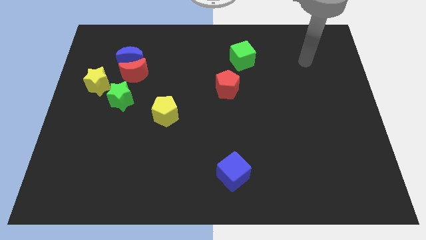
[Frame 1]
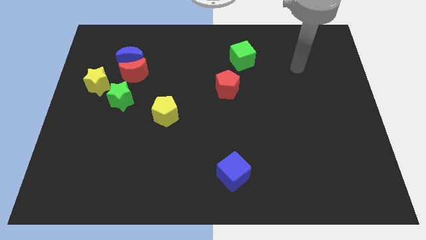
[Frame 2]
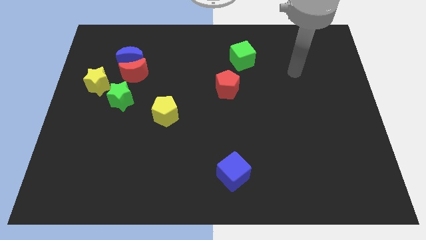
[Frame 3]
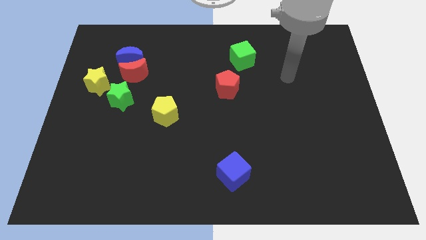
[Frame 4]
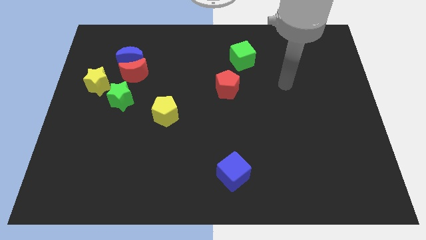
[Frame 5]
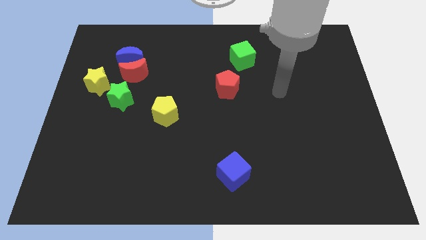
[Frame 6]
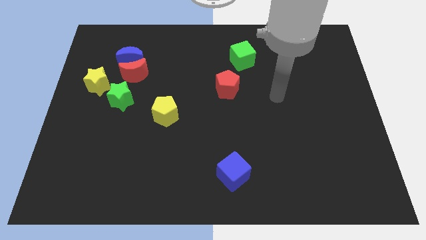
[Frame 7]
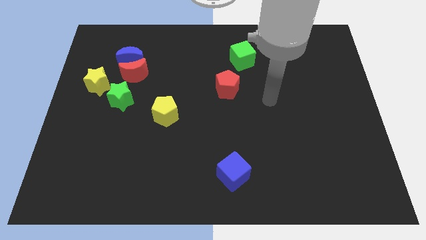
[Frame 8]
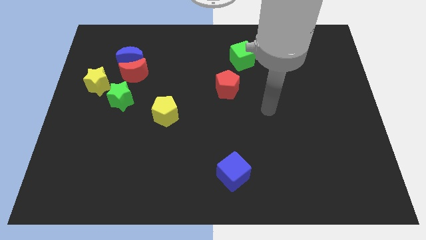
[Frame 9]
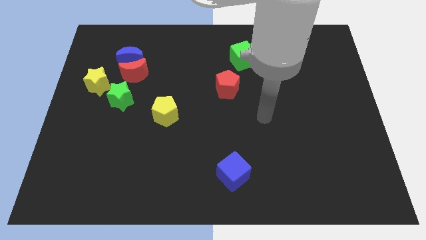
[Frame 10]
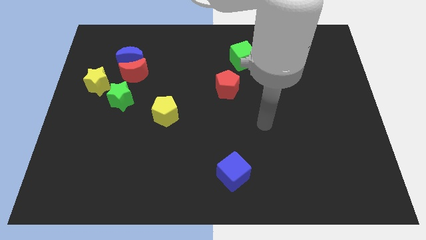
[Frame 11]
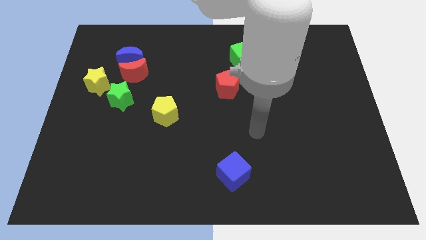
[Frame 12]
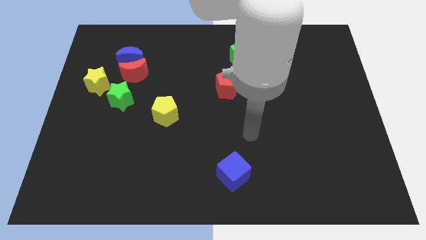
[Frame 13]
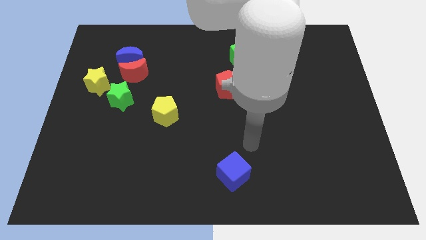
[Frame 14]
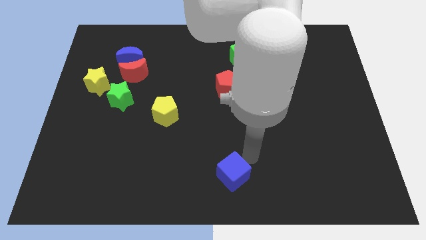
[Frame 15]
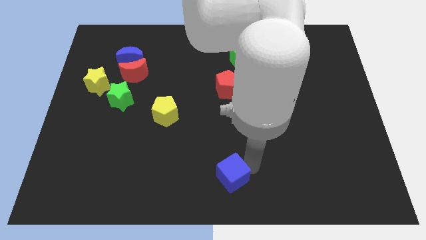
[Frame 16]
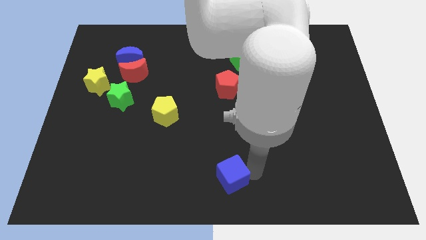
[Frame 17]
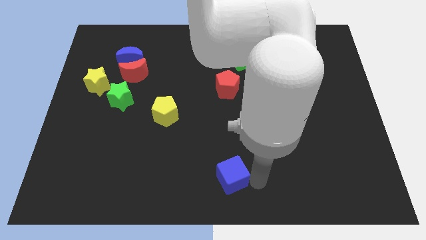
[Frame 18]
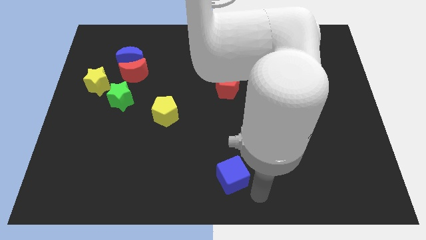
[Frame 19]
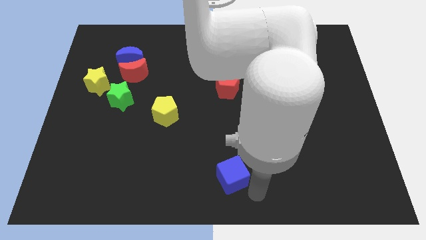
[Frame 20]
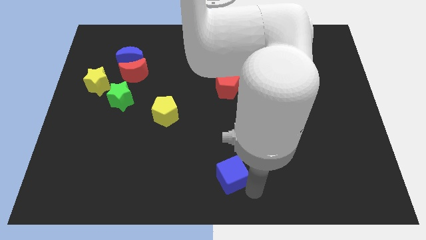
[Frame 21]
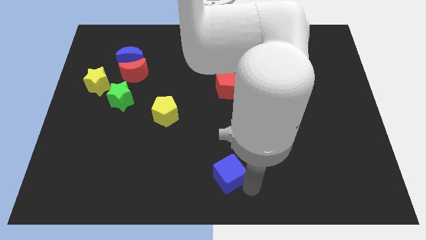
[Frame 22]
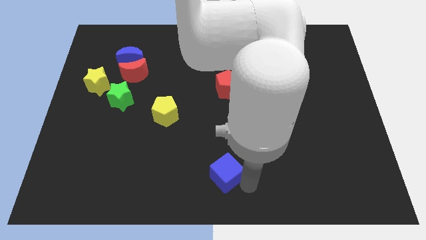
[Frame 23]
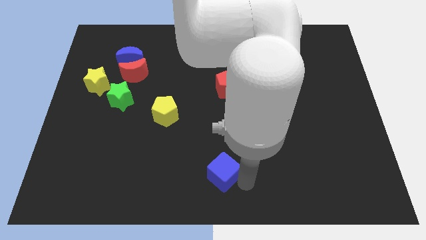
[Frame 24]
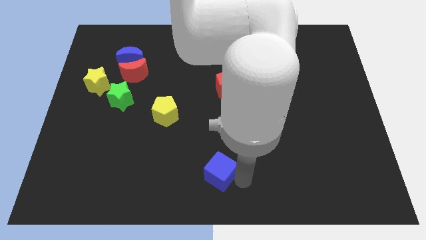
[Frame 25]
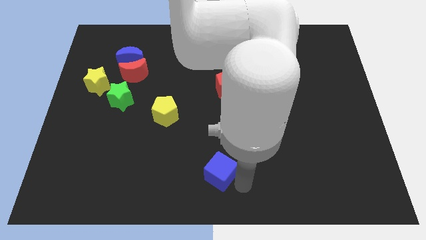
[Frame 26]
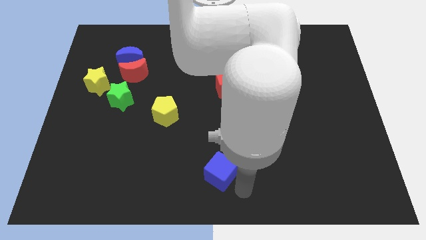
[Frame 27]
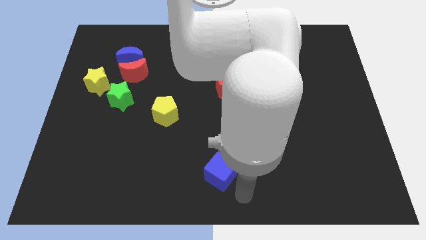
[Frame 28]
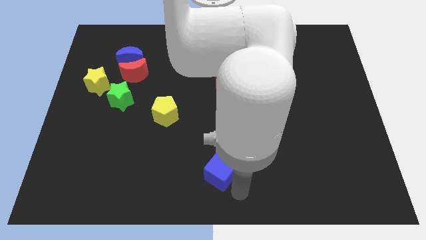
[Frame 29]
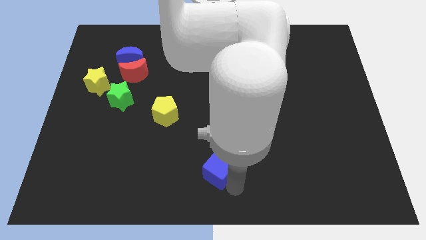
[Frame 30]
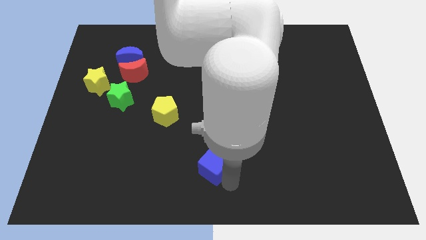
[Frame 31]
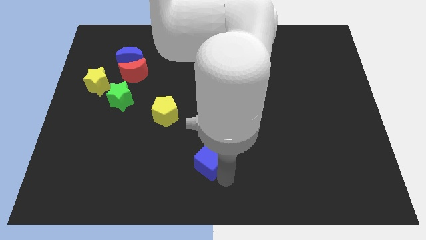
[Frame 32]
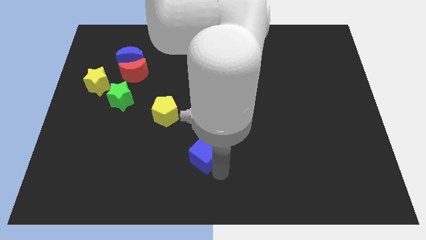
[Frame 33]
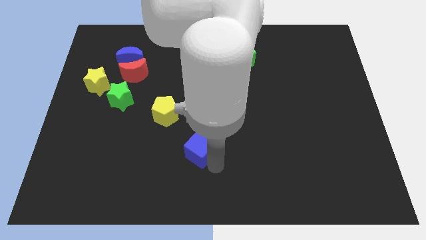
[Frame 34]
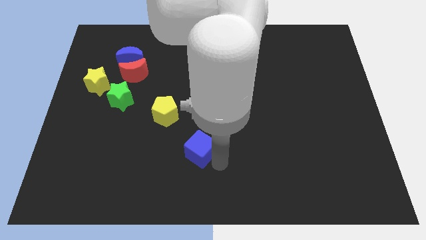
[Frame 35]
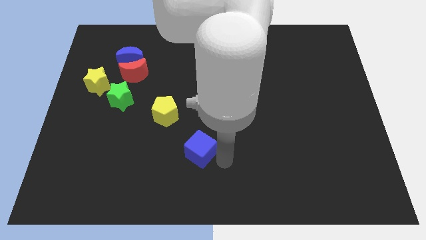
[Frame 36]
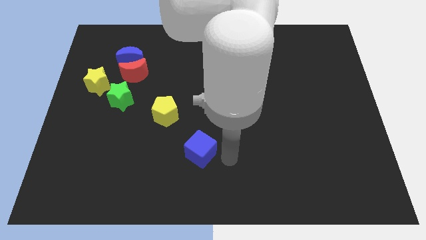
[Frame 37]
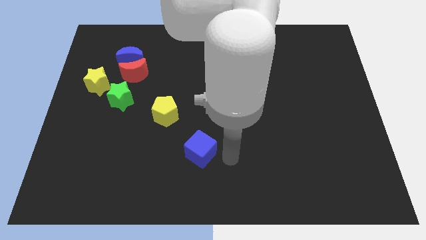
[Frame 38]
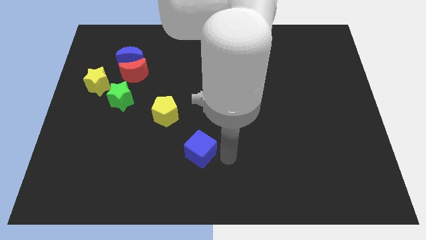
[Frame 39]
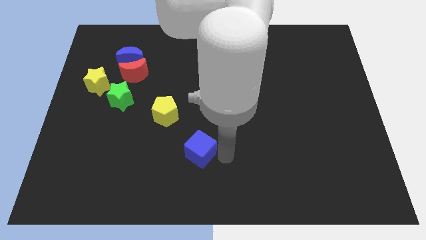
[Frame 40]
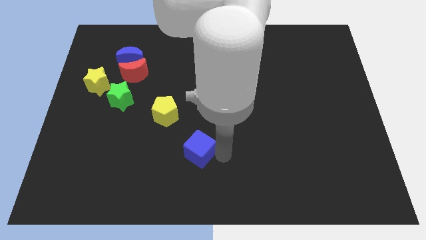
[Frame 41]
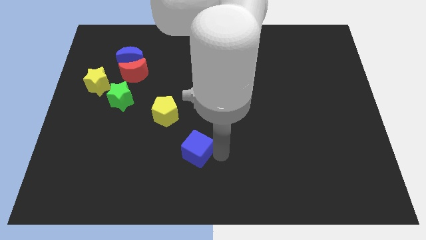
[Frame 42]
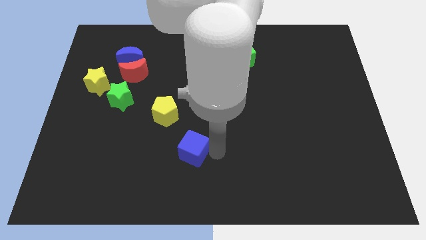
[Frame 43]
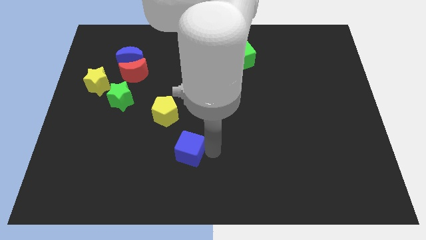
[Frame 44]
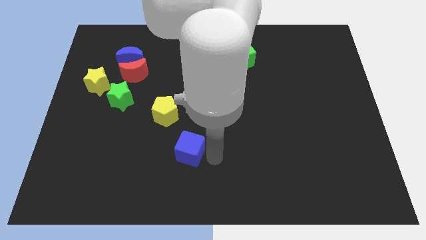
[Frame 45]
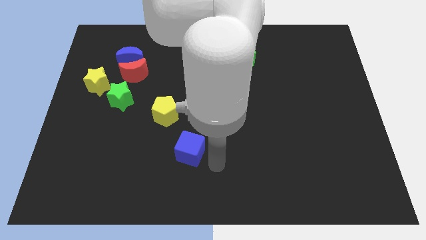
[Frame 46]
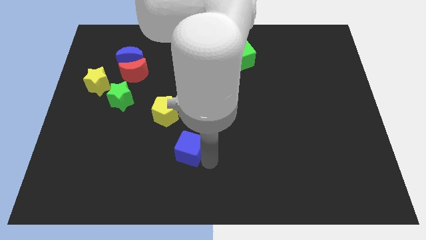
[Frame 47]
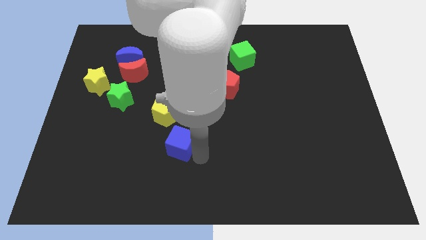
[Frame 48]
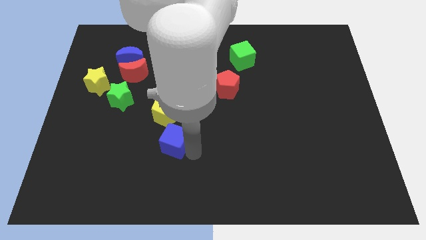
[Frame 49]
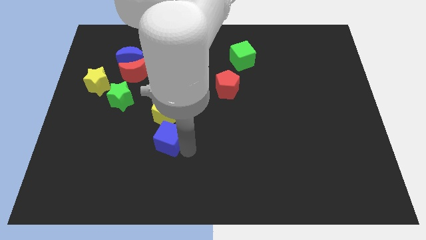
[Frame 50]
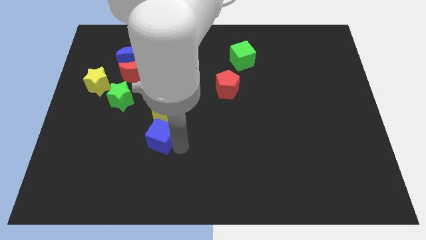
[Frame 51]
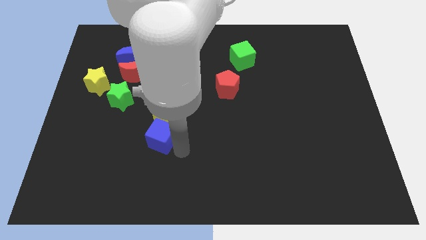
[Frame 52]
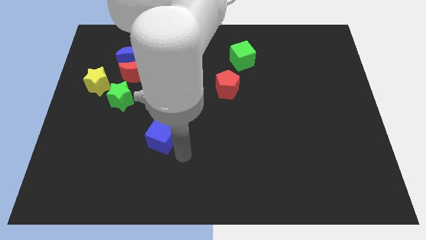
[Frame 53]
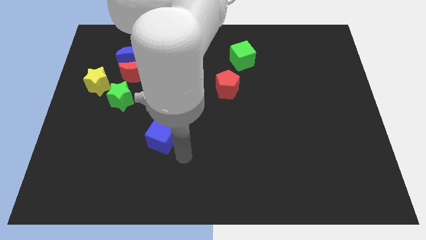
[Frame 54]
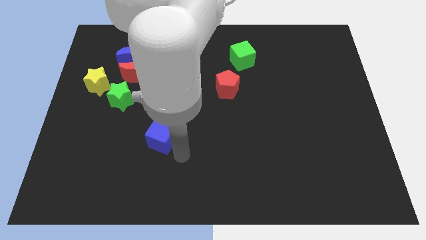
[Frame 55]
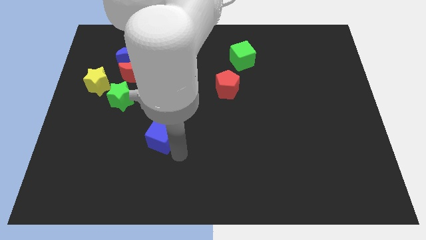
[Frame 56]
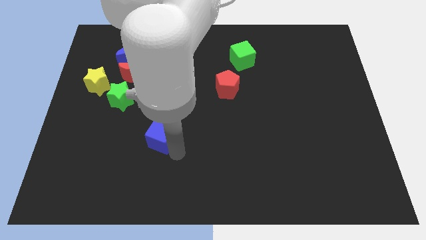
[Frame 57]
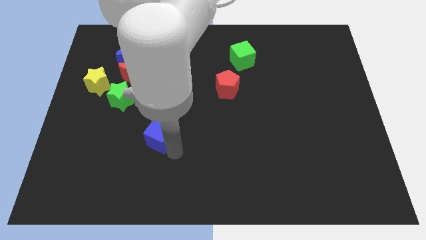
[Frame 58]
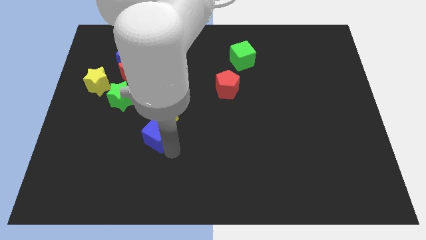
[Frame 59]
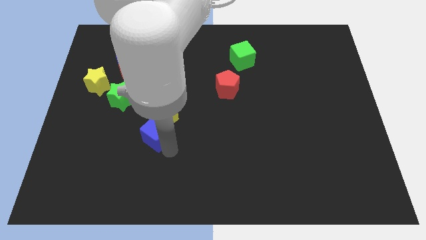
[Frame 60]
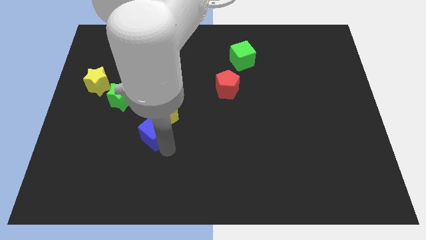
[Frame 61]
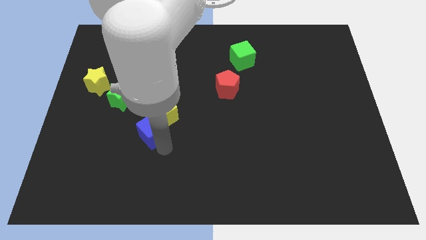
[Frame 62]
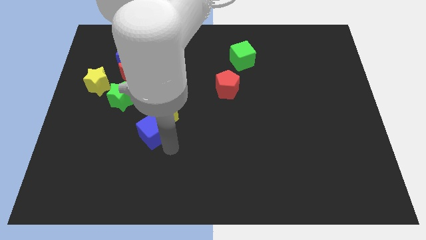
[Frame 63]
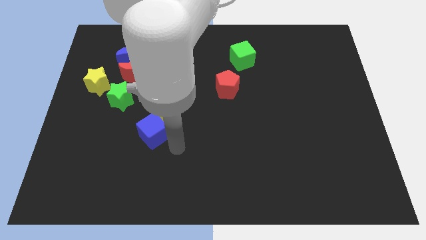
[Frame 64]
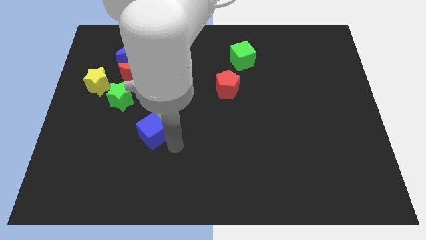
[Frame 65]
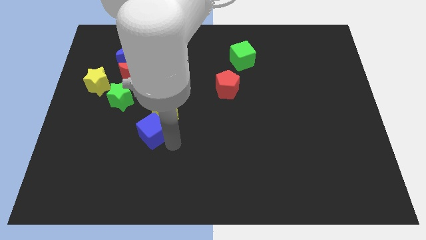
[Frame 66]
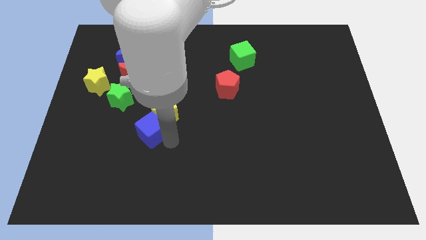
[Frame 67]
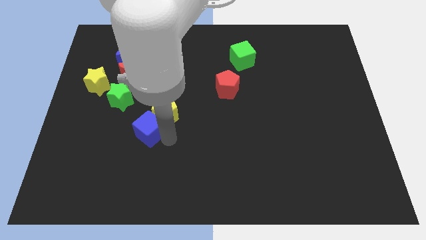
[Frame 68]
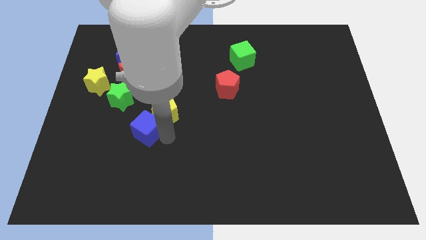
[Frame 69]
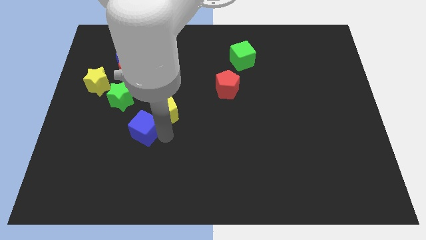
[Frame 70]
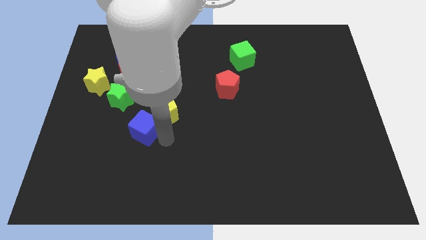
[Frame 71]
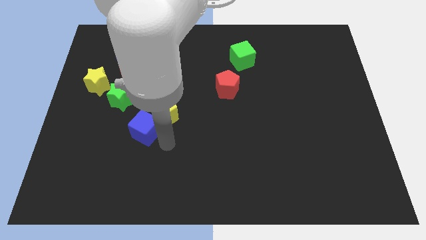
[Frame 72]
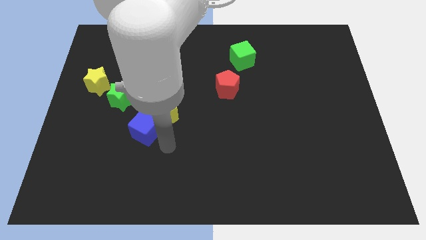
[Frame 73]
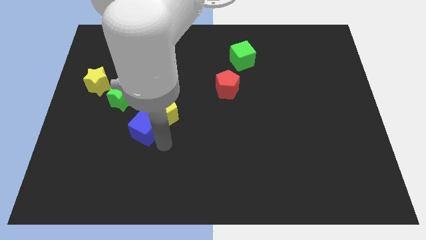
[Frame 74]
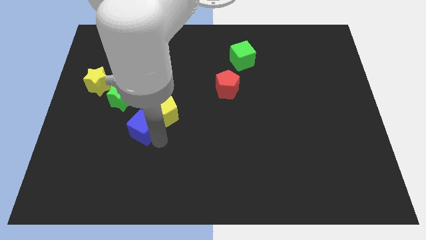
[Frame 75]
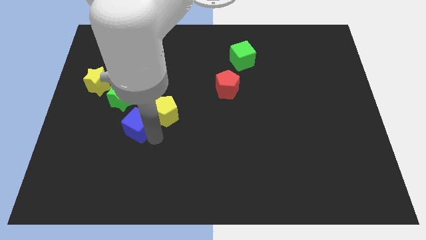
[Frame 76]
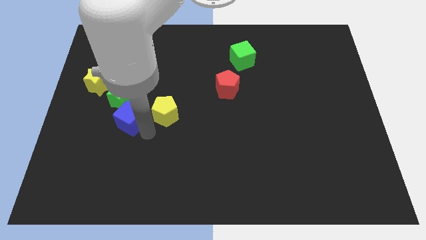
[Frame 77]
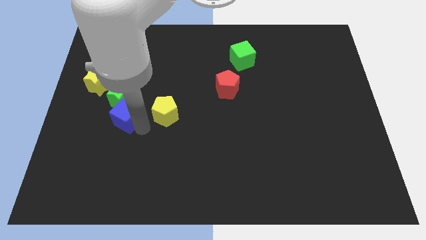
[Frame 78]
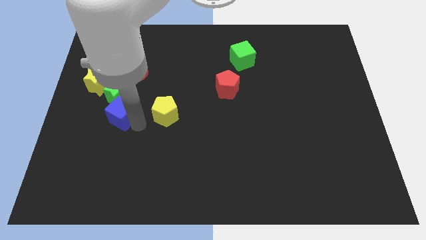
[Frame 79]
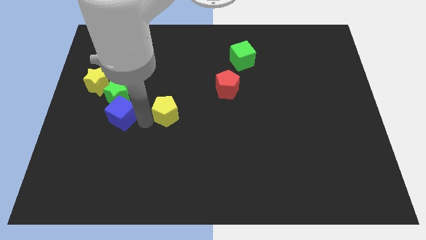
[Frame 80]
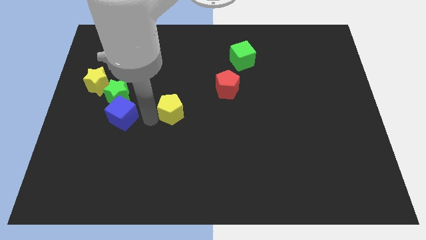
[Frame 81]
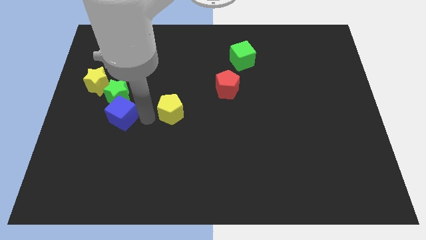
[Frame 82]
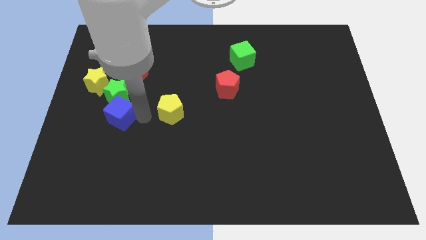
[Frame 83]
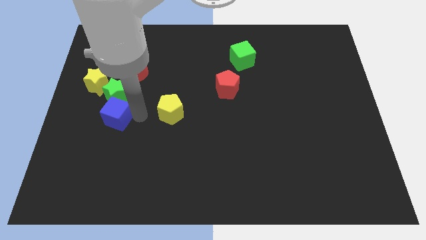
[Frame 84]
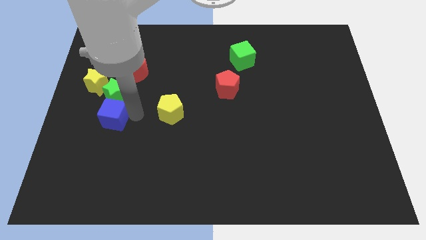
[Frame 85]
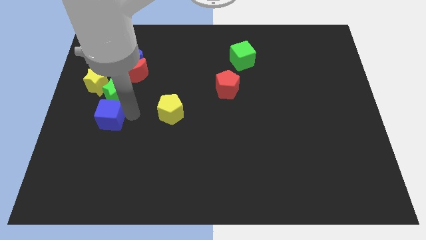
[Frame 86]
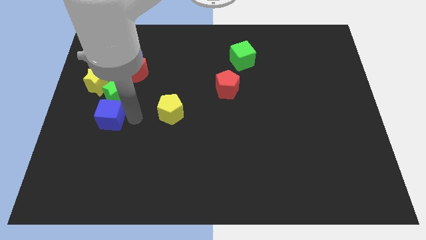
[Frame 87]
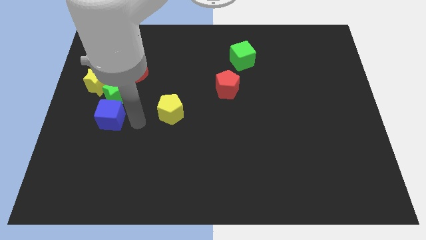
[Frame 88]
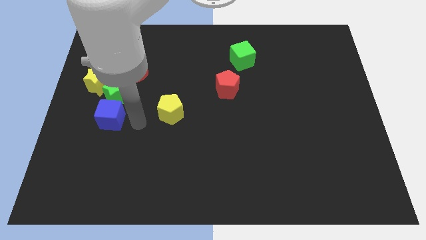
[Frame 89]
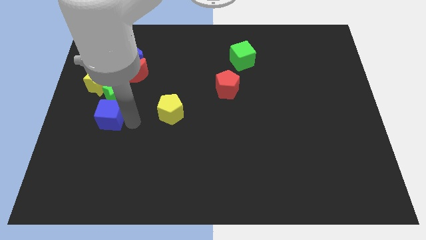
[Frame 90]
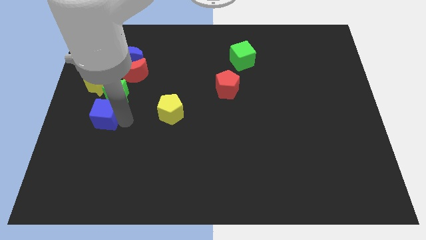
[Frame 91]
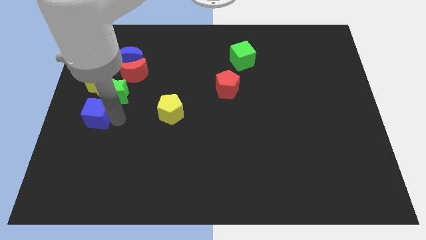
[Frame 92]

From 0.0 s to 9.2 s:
put the blue cube to the center left
